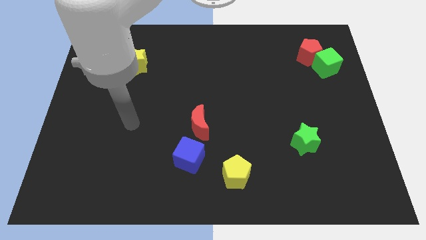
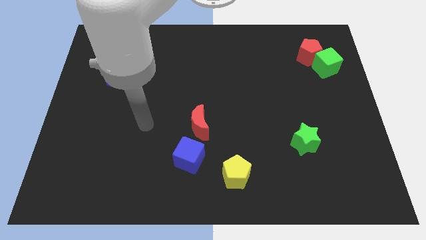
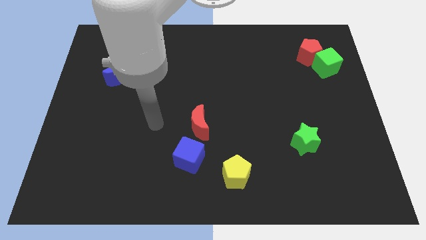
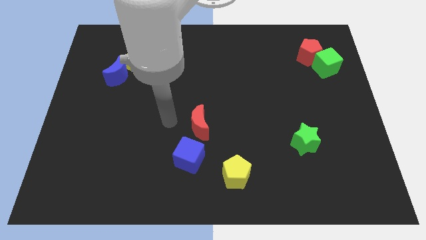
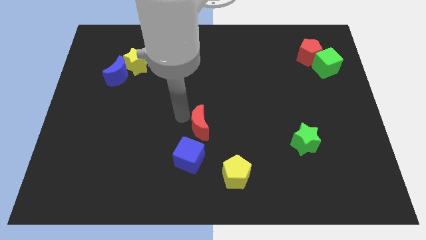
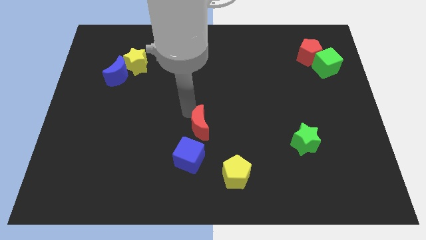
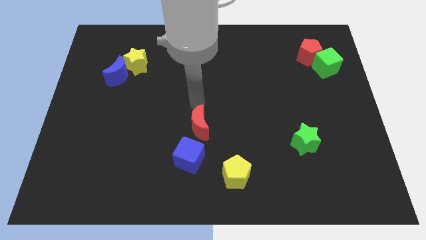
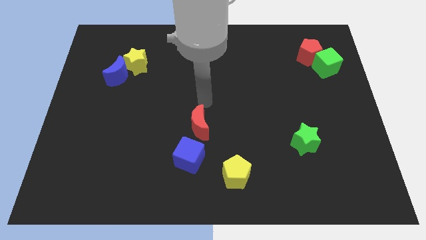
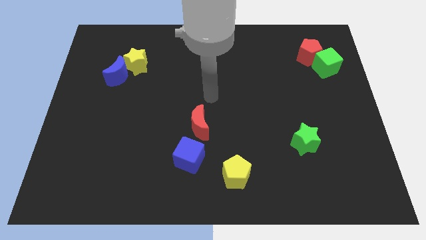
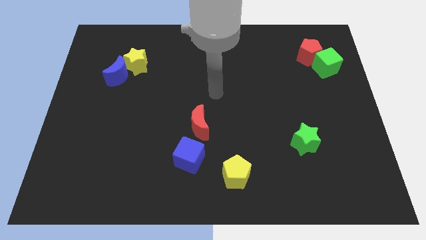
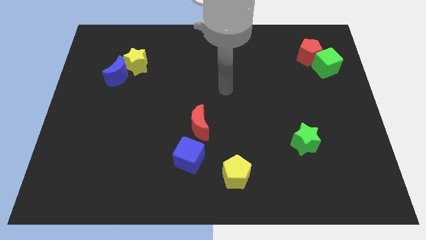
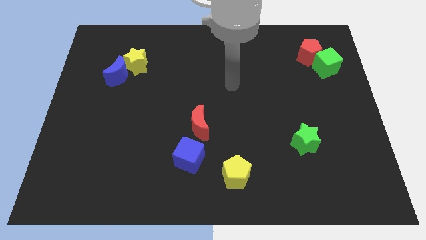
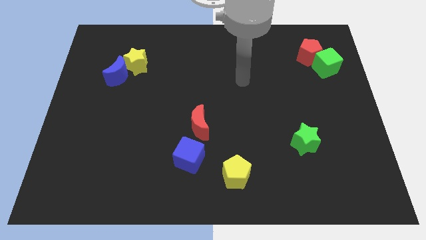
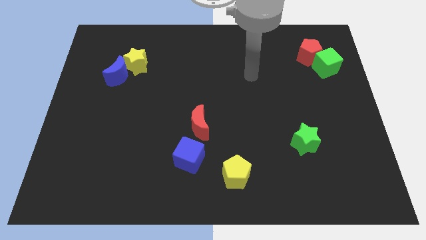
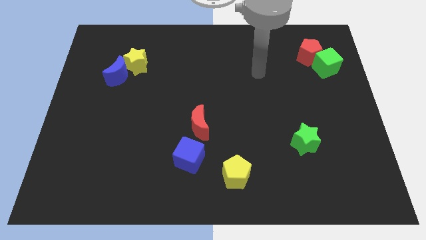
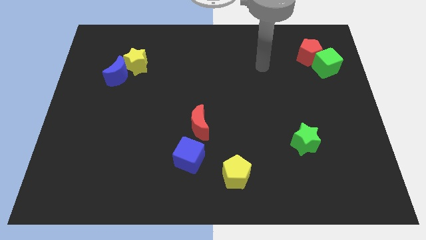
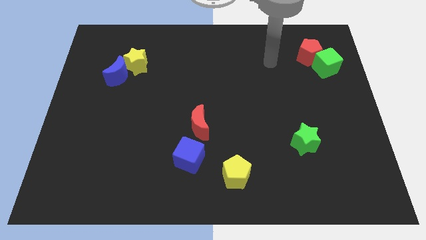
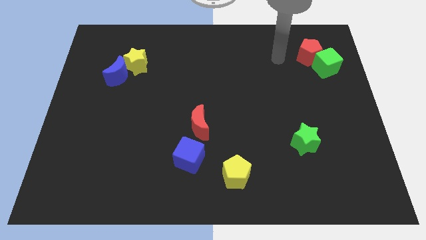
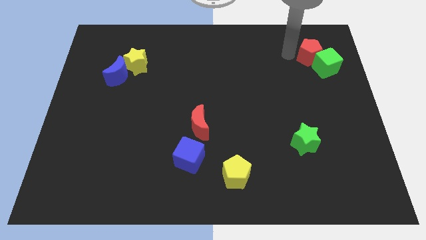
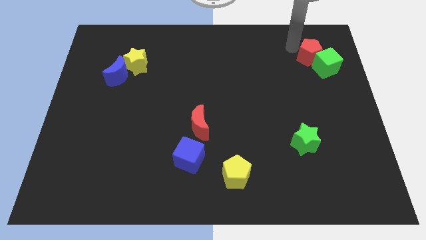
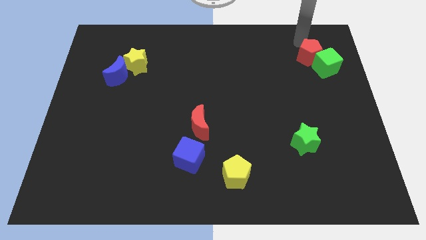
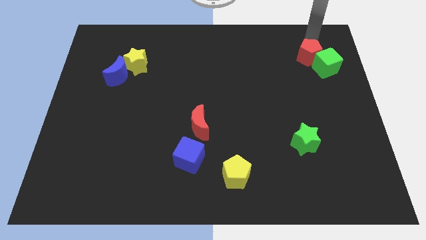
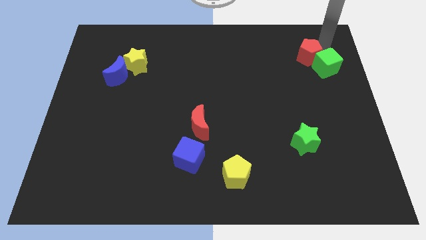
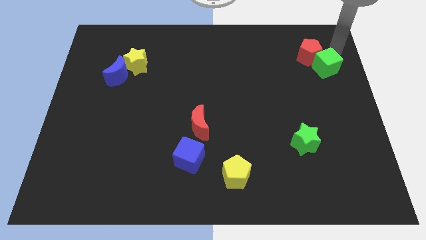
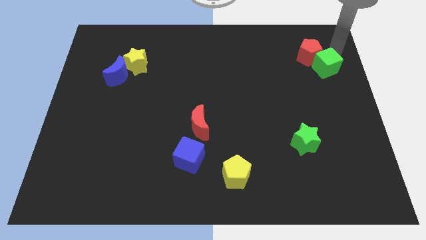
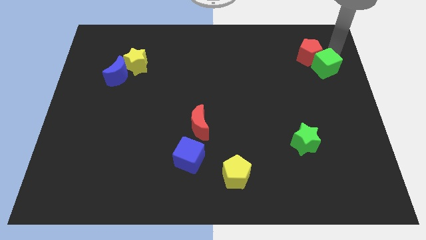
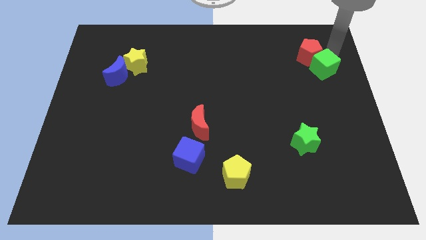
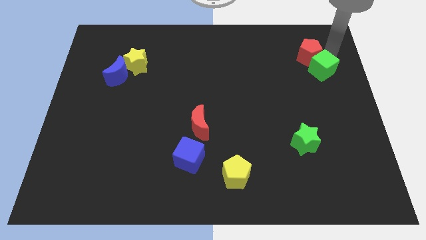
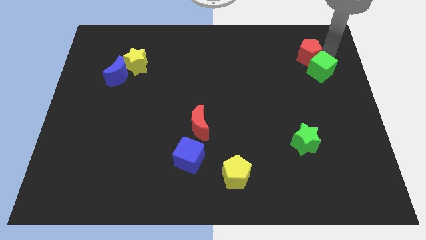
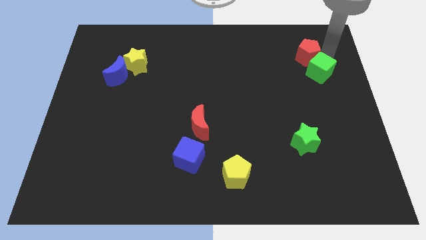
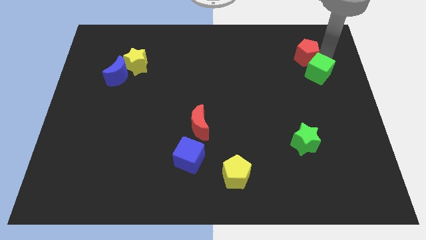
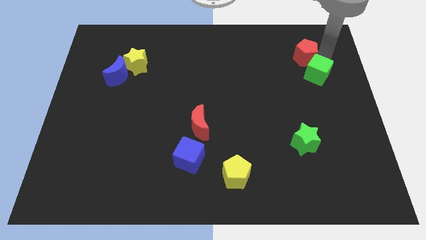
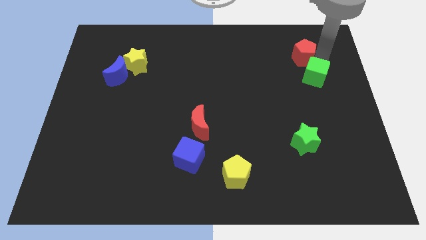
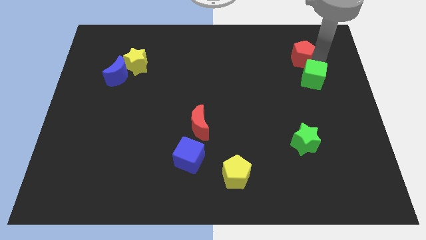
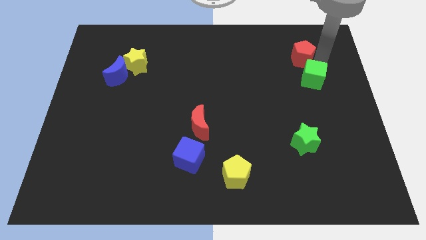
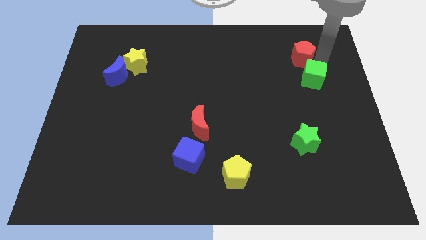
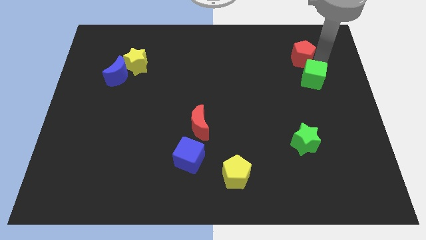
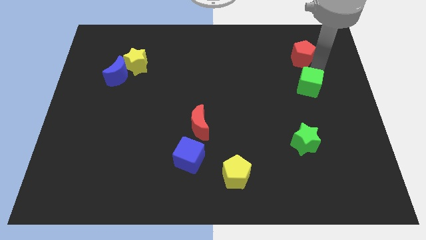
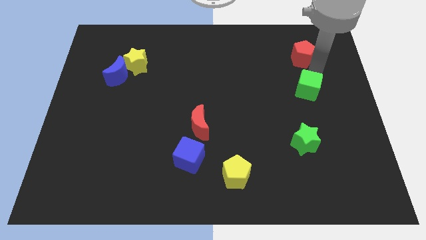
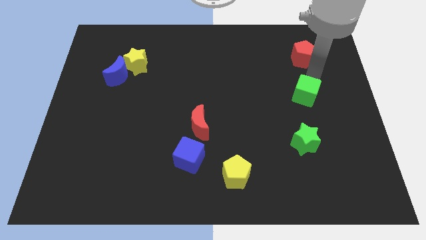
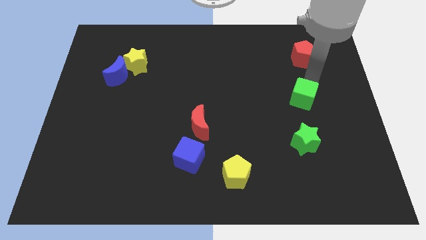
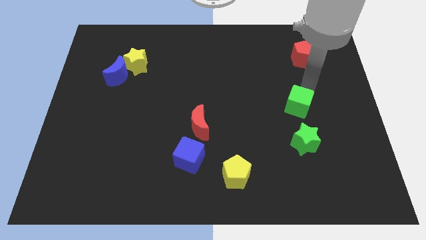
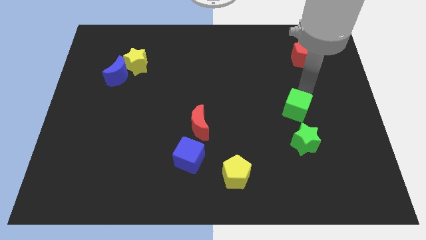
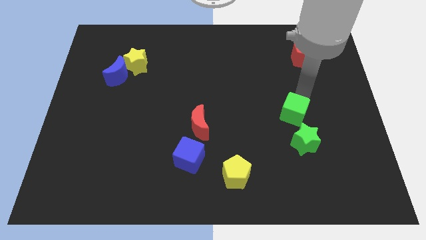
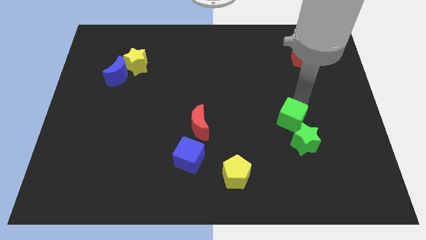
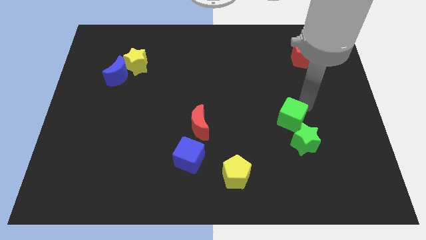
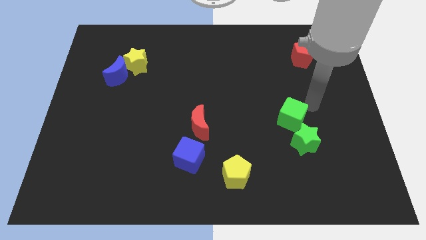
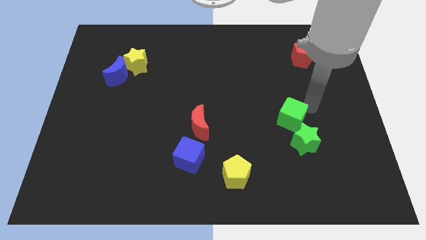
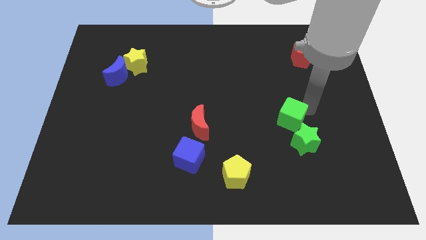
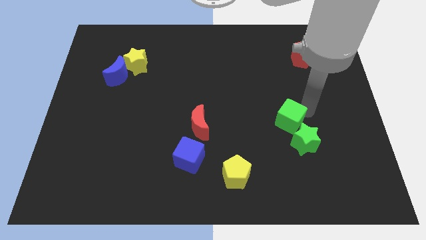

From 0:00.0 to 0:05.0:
slide the green cube down and left diagonally

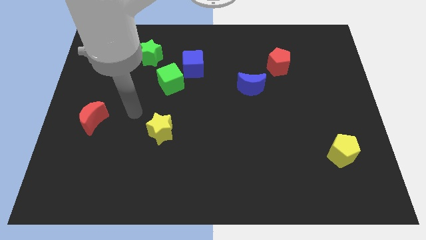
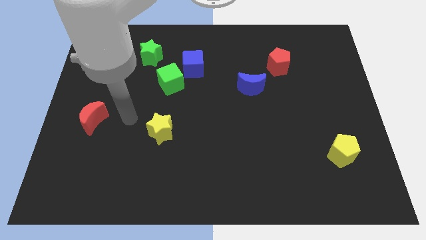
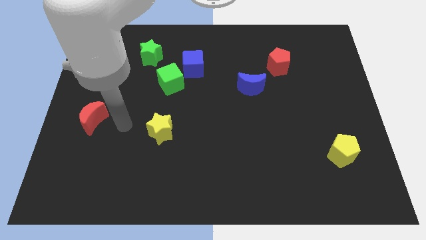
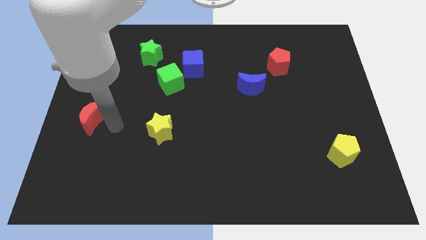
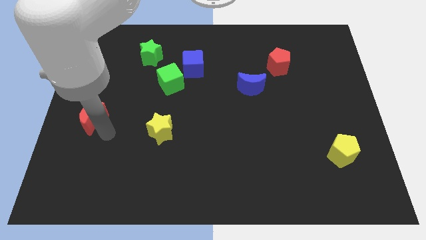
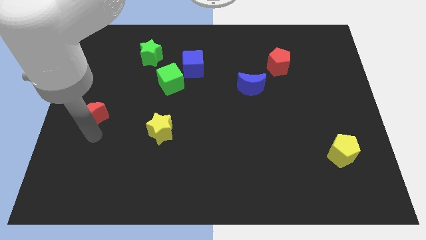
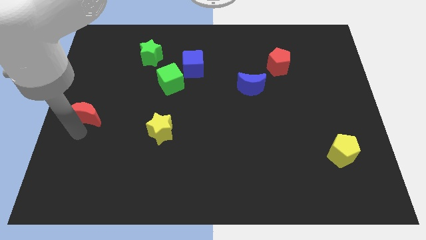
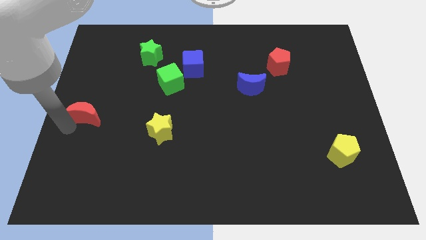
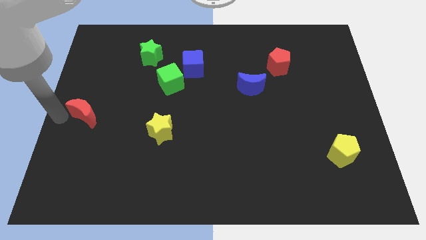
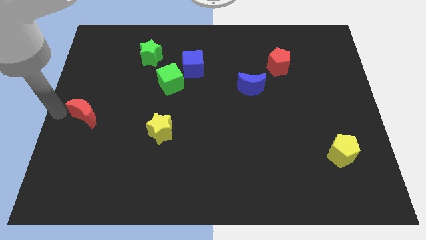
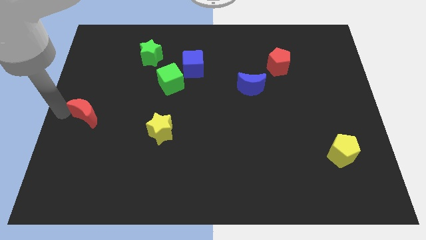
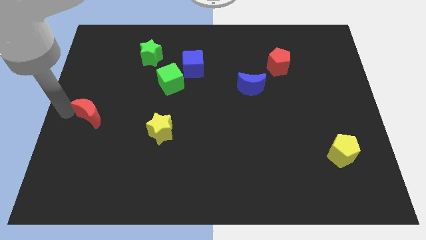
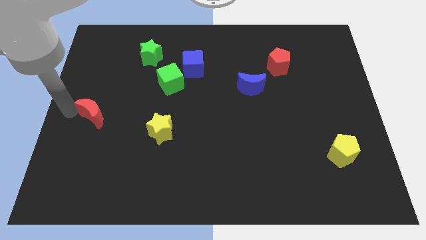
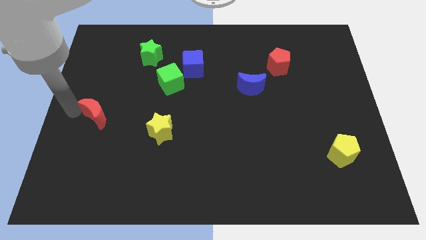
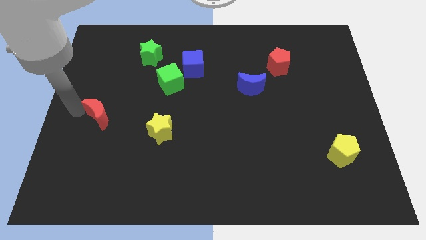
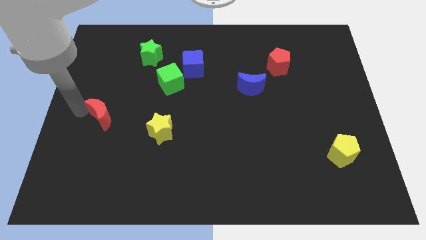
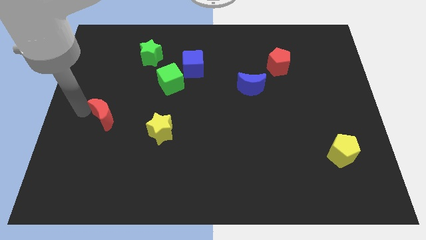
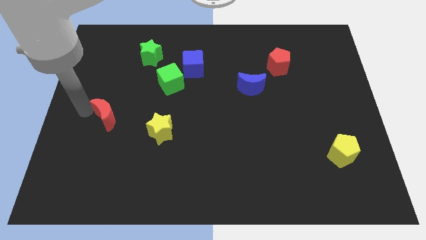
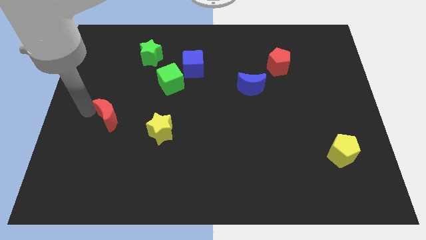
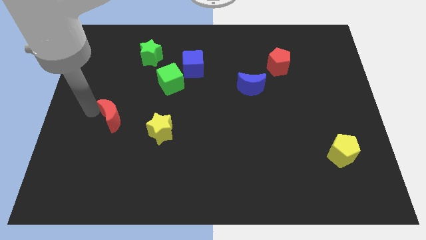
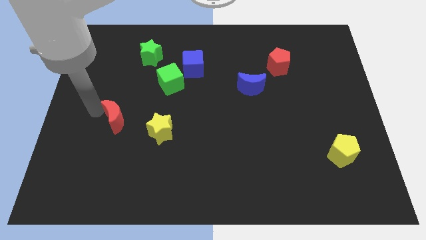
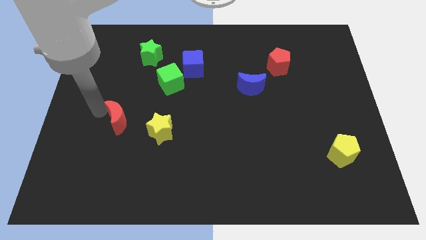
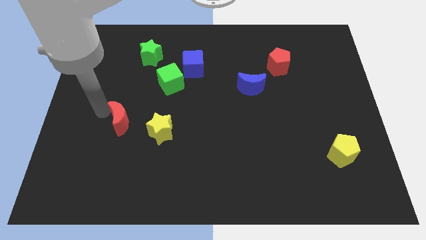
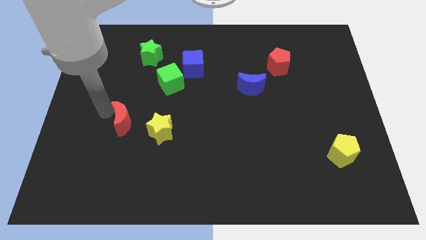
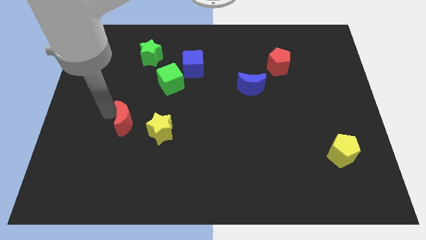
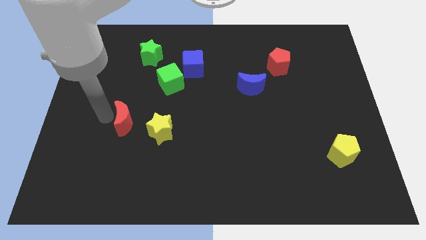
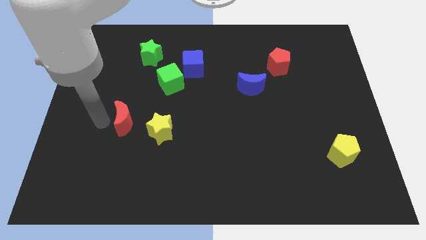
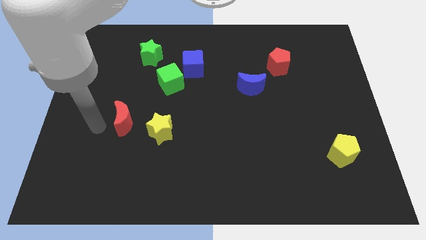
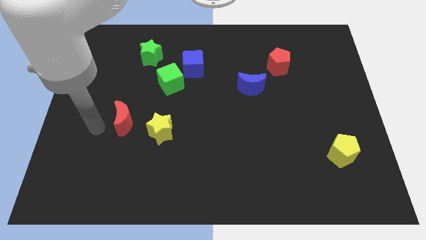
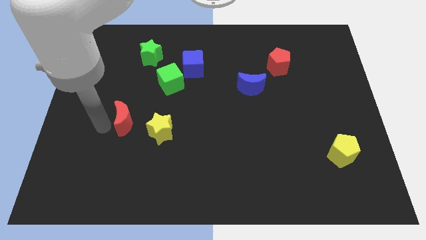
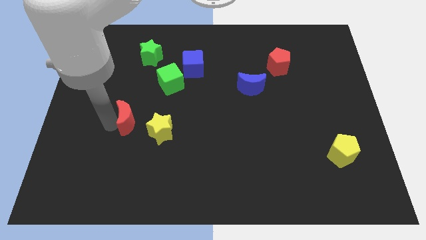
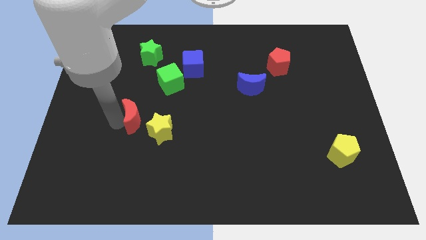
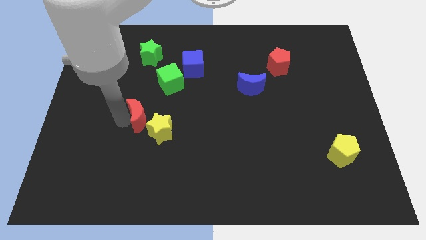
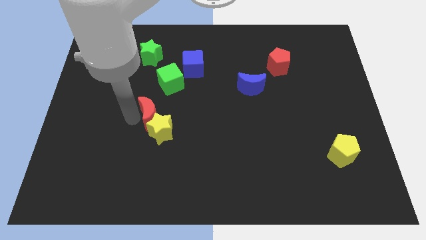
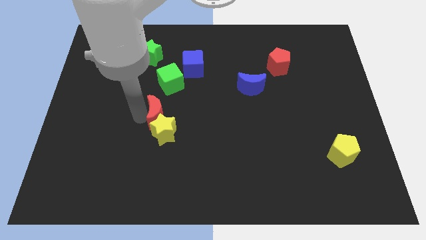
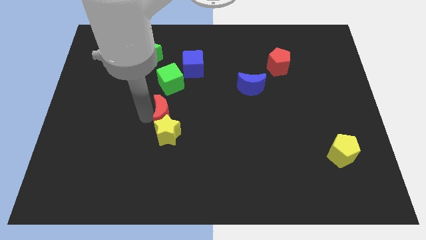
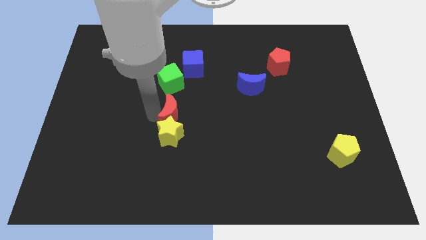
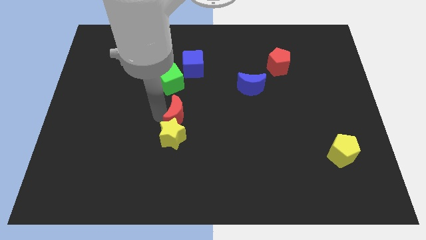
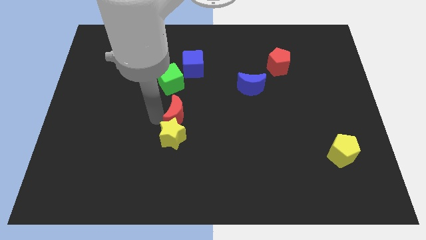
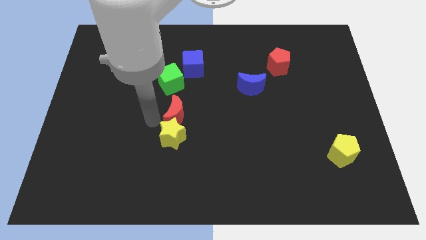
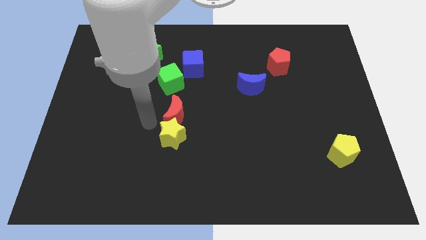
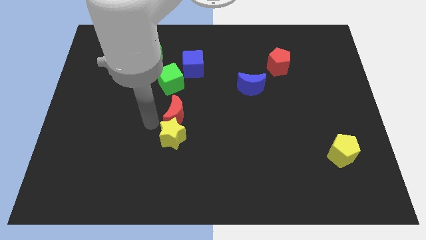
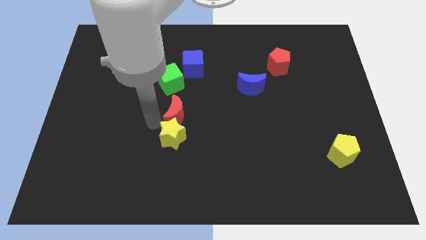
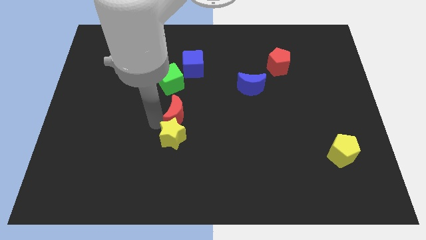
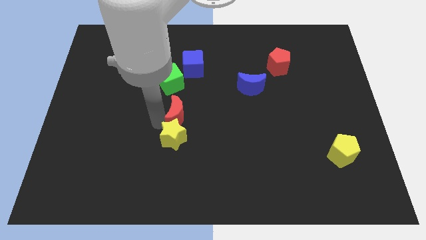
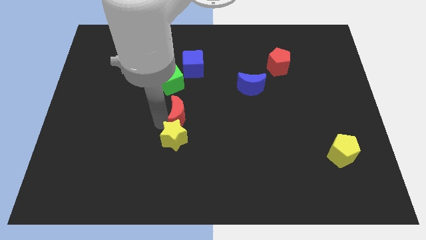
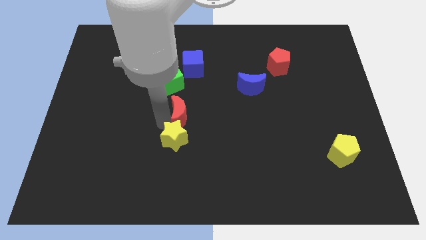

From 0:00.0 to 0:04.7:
push the red moon to the right
